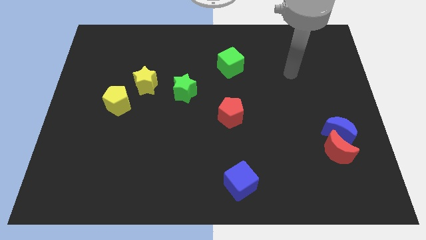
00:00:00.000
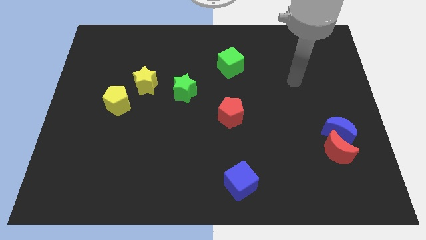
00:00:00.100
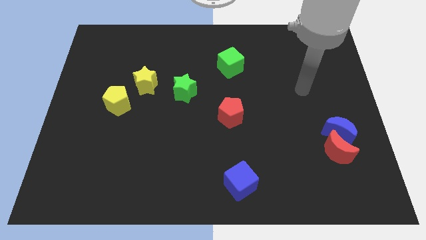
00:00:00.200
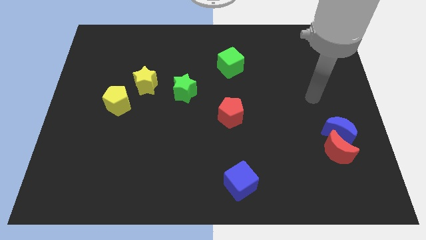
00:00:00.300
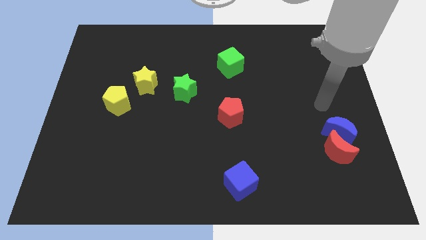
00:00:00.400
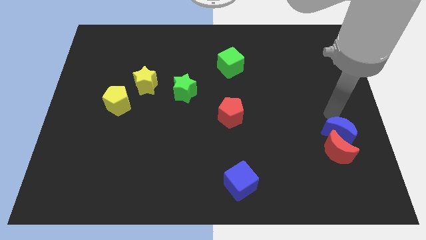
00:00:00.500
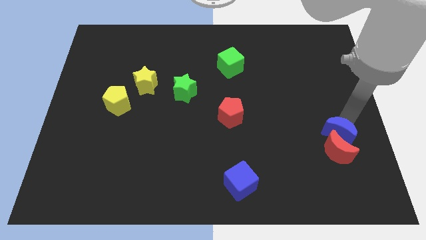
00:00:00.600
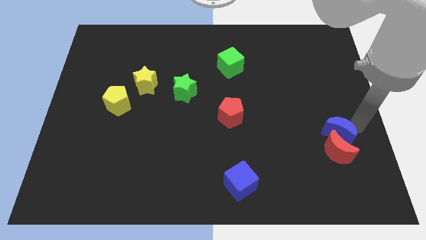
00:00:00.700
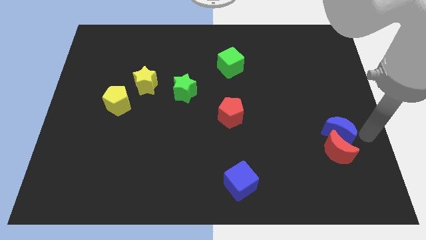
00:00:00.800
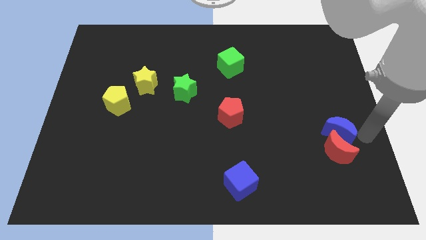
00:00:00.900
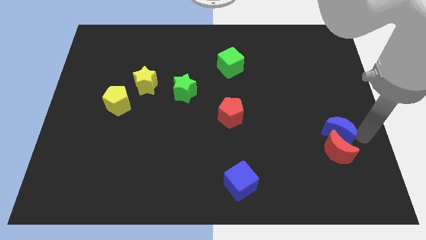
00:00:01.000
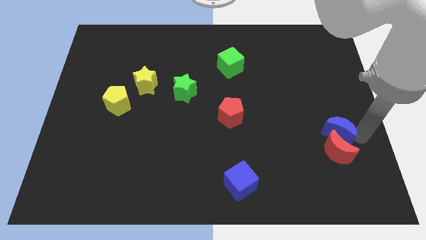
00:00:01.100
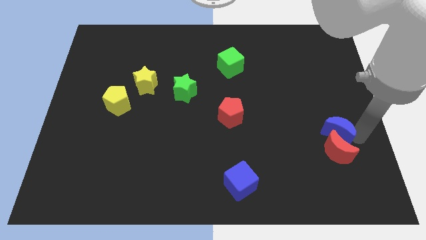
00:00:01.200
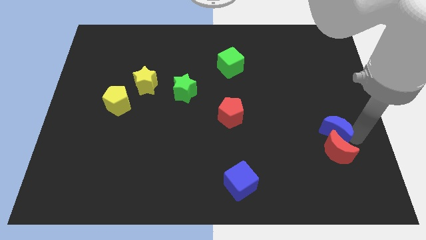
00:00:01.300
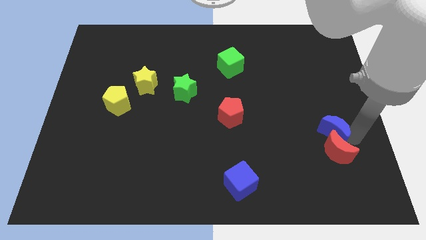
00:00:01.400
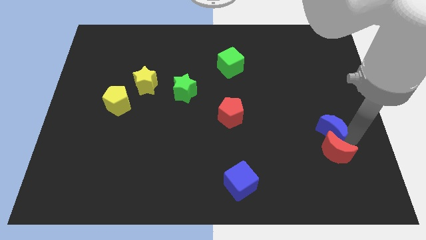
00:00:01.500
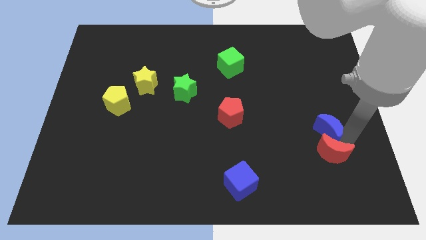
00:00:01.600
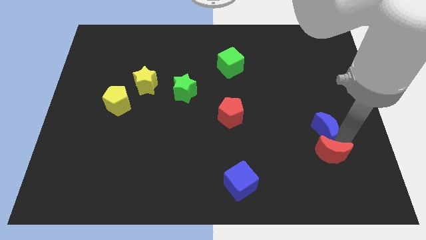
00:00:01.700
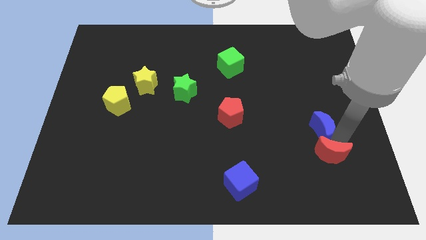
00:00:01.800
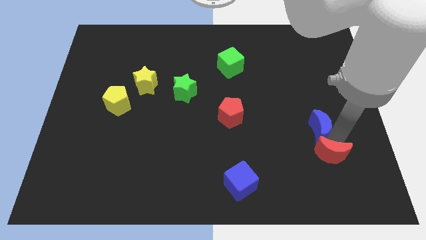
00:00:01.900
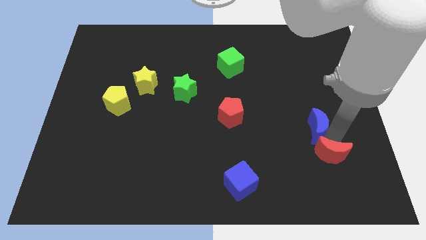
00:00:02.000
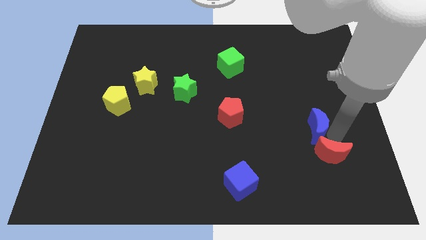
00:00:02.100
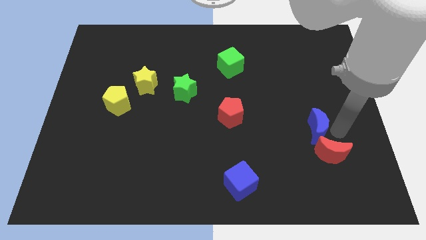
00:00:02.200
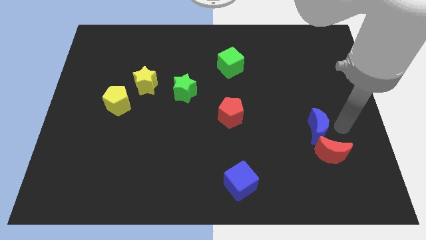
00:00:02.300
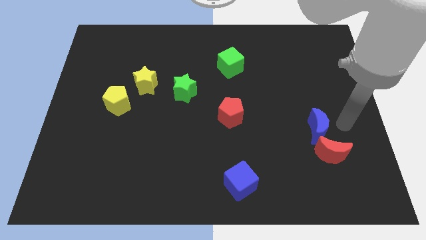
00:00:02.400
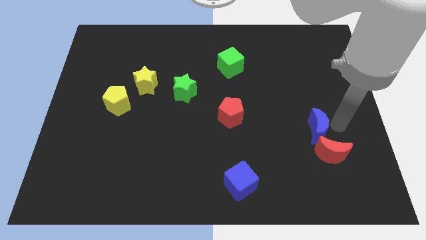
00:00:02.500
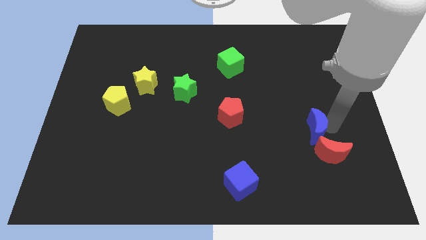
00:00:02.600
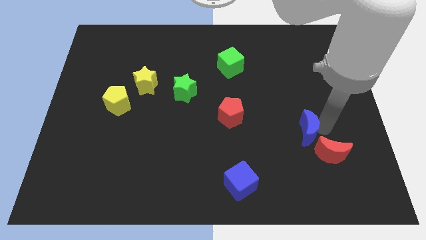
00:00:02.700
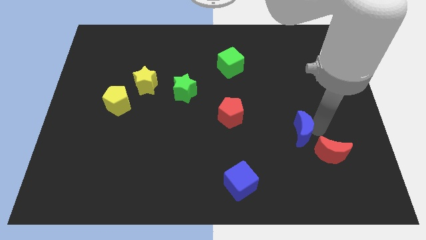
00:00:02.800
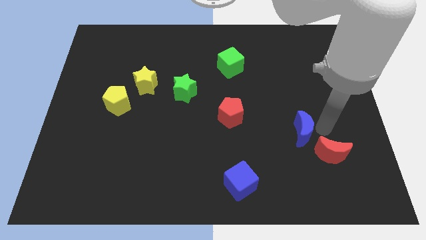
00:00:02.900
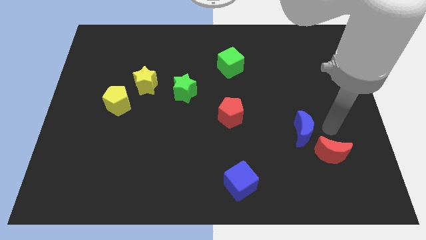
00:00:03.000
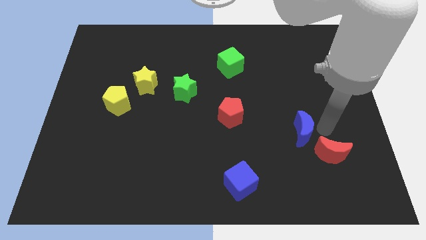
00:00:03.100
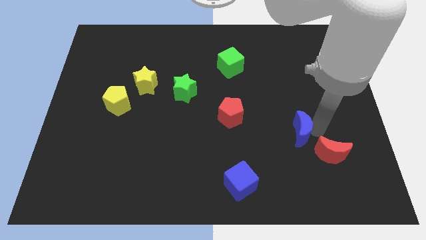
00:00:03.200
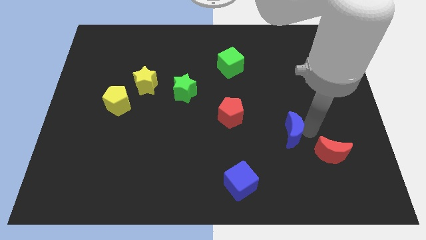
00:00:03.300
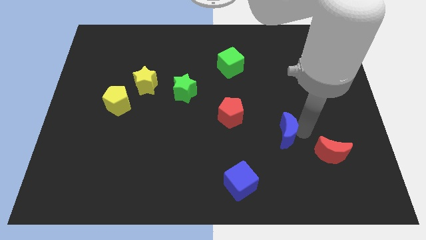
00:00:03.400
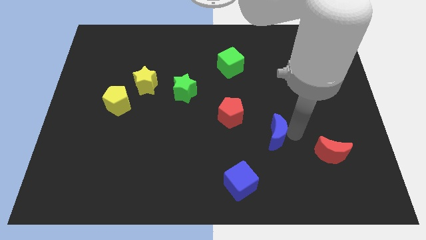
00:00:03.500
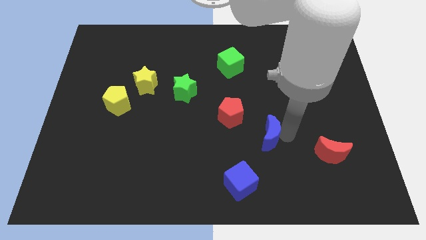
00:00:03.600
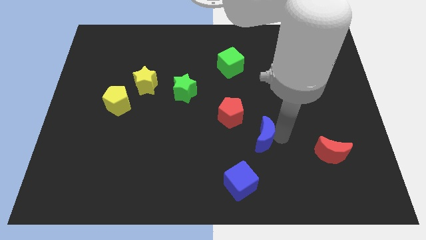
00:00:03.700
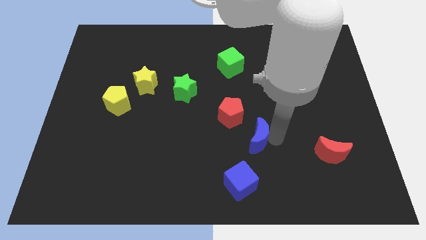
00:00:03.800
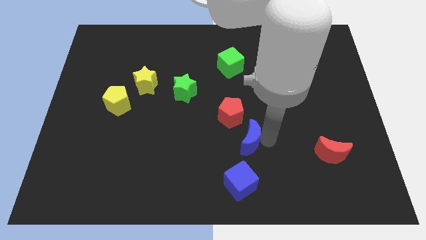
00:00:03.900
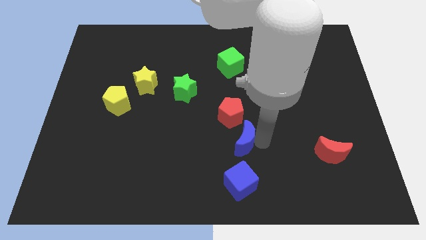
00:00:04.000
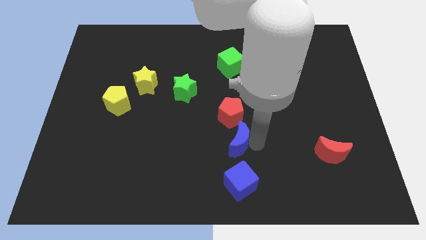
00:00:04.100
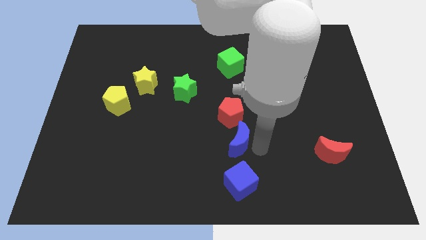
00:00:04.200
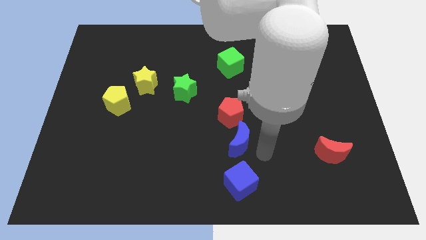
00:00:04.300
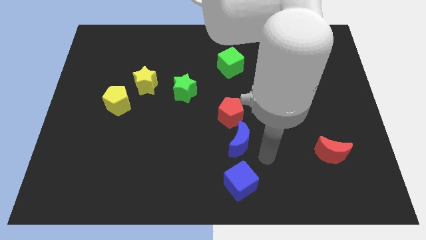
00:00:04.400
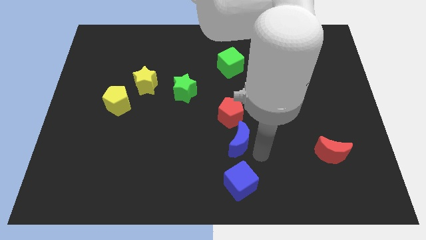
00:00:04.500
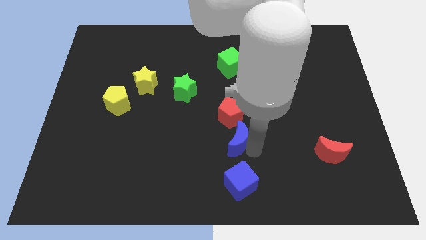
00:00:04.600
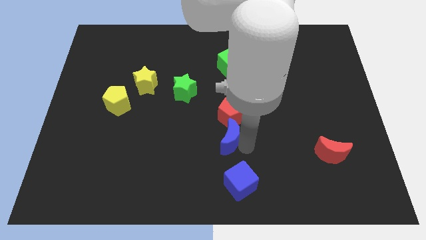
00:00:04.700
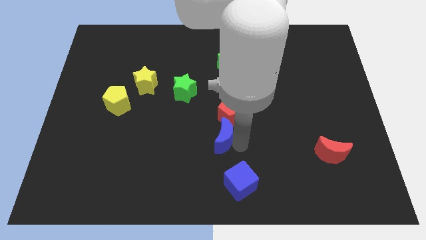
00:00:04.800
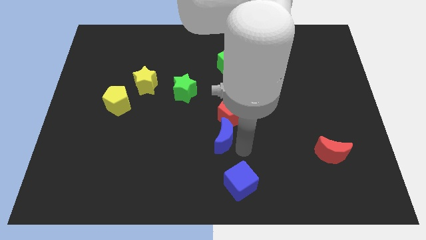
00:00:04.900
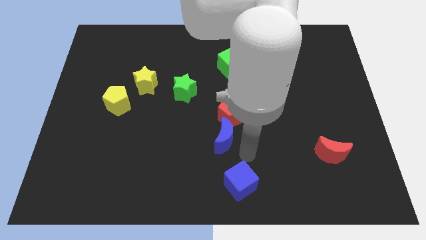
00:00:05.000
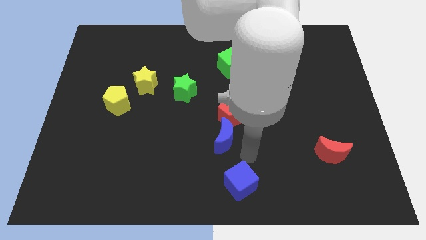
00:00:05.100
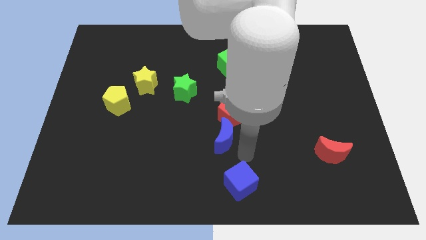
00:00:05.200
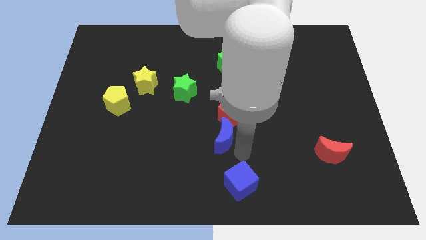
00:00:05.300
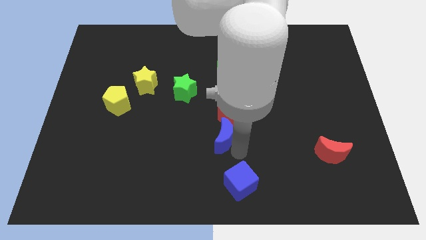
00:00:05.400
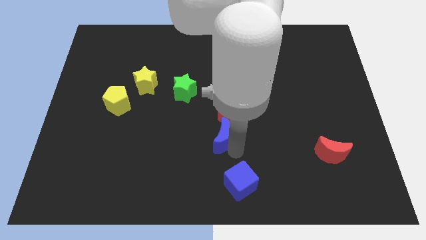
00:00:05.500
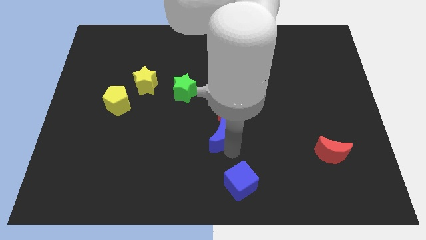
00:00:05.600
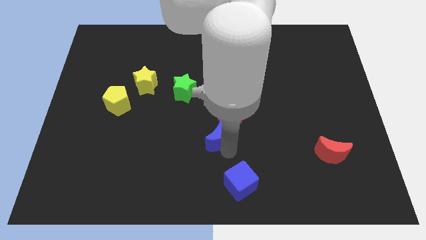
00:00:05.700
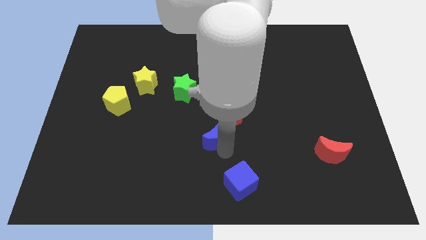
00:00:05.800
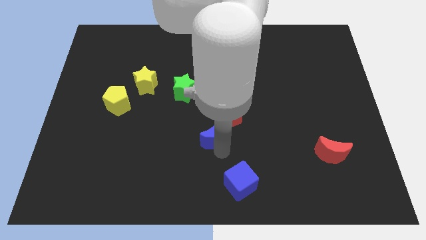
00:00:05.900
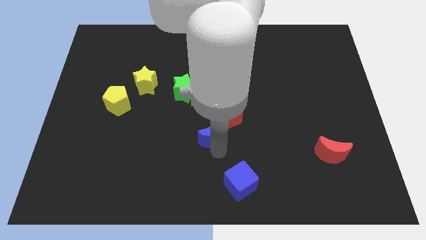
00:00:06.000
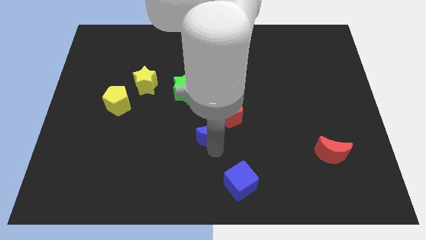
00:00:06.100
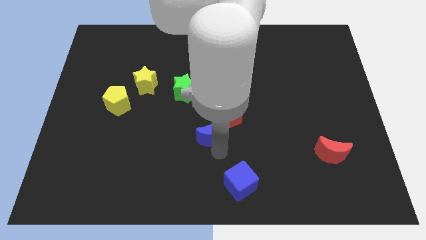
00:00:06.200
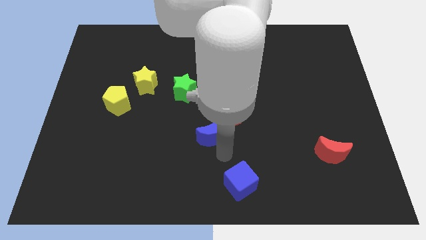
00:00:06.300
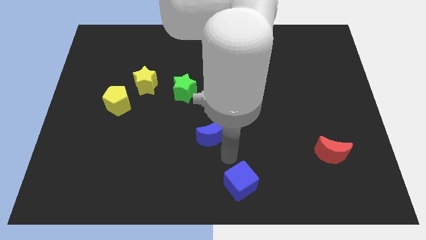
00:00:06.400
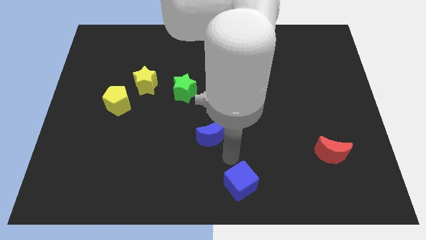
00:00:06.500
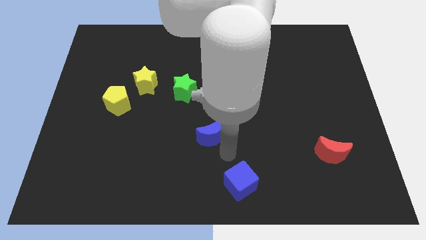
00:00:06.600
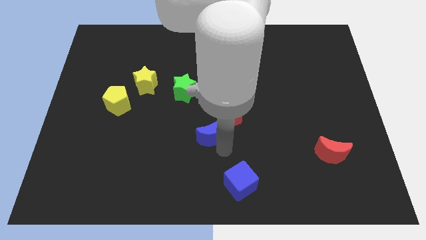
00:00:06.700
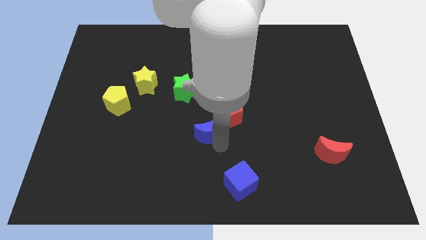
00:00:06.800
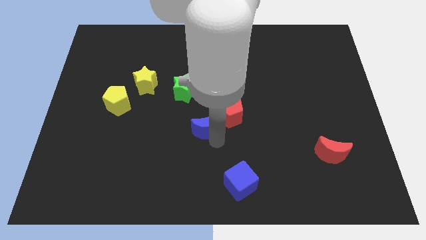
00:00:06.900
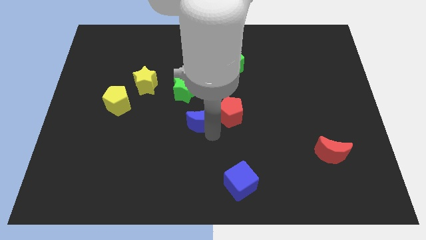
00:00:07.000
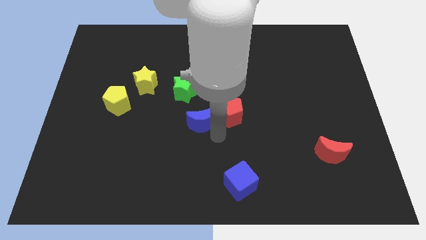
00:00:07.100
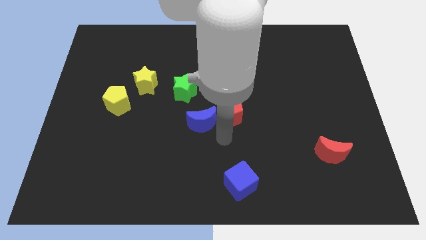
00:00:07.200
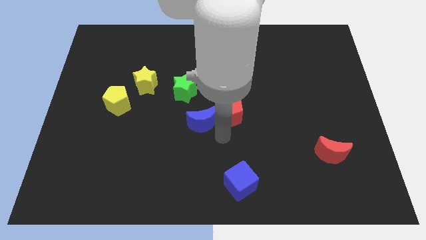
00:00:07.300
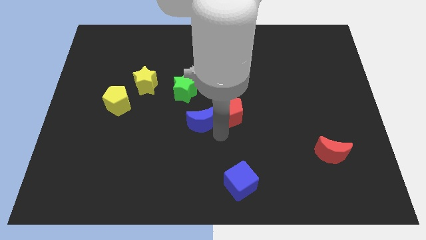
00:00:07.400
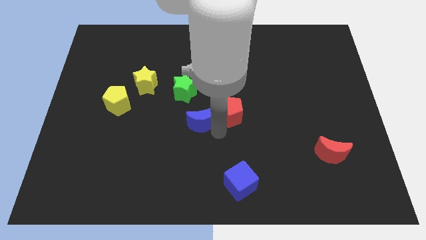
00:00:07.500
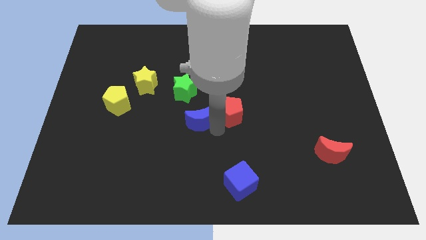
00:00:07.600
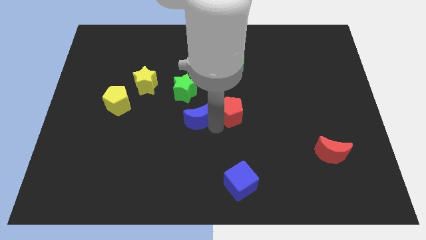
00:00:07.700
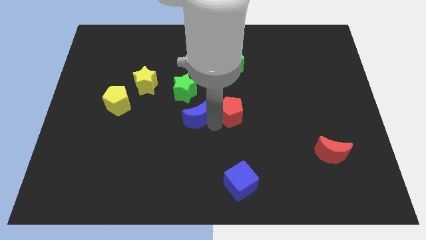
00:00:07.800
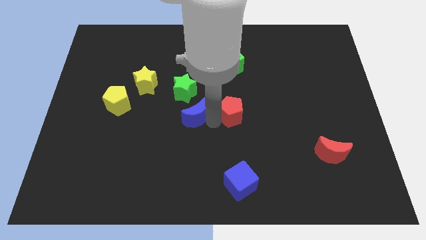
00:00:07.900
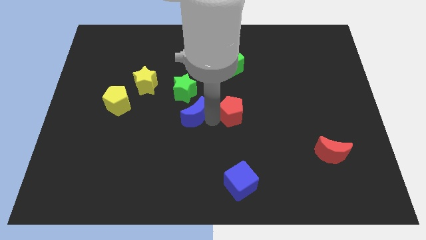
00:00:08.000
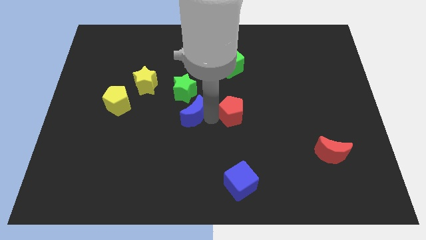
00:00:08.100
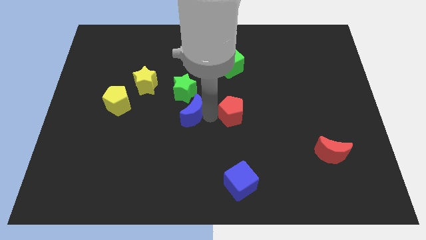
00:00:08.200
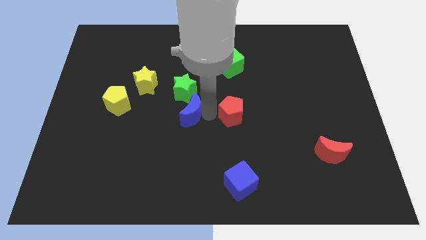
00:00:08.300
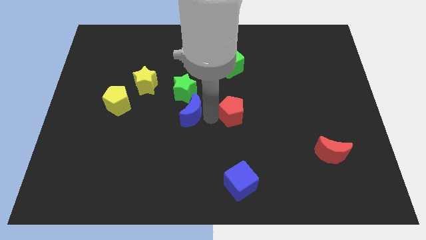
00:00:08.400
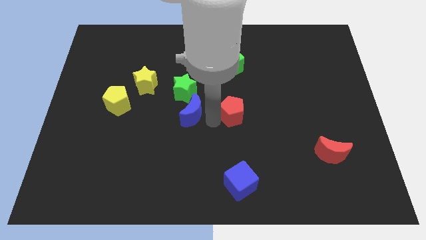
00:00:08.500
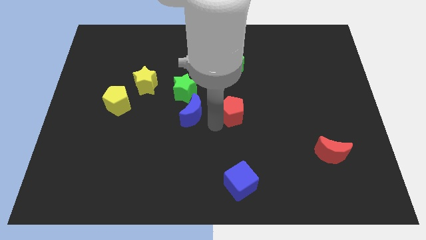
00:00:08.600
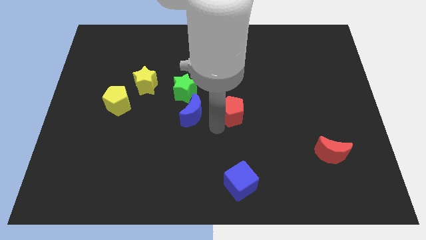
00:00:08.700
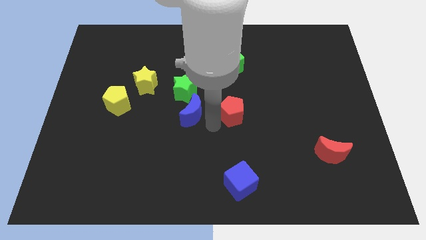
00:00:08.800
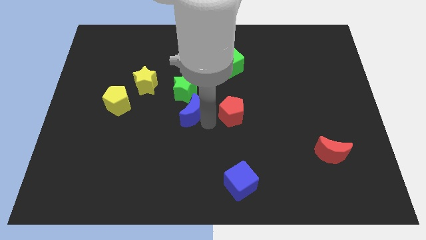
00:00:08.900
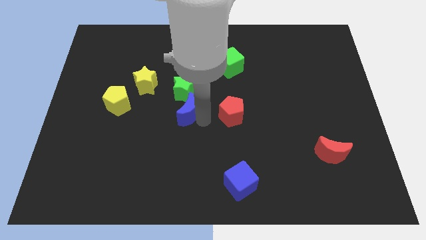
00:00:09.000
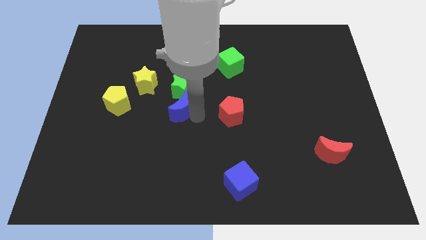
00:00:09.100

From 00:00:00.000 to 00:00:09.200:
slide the blue moon to the right side of the yellow pentagon
